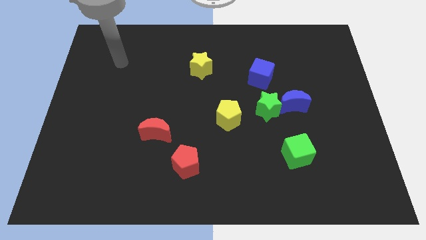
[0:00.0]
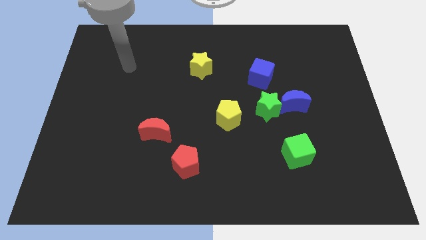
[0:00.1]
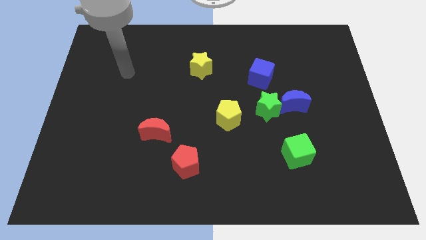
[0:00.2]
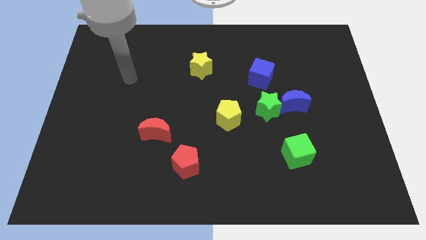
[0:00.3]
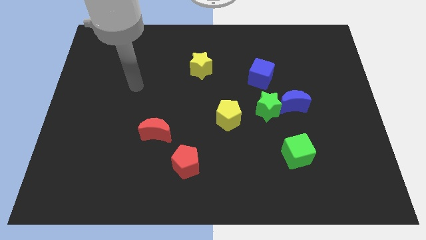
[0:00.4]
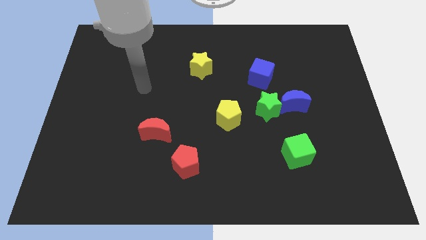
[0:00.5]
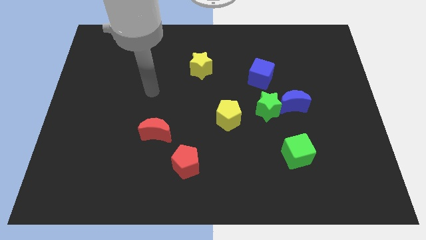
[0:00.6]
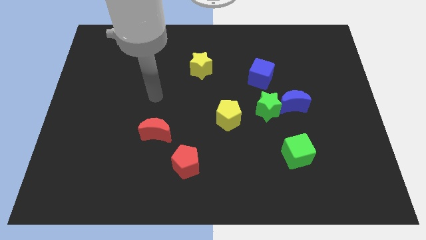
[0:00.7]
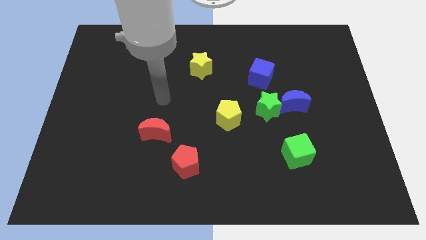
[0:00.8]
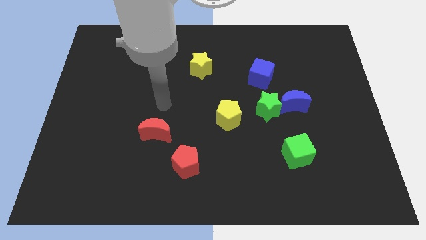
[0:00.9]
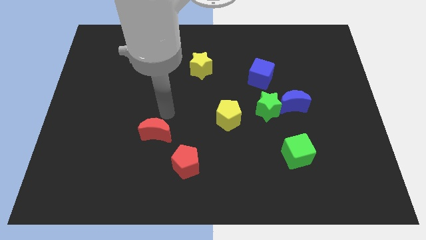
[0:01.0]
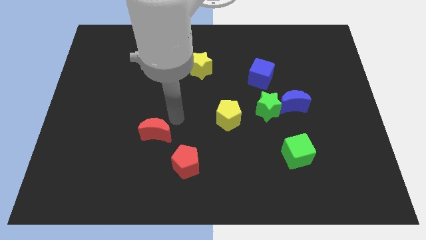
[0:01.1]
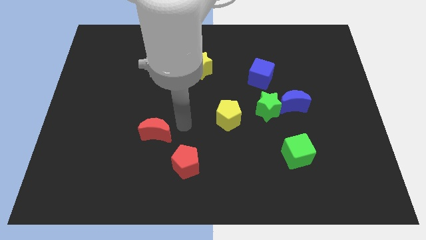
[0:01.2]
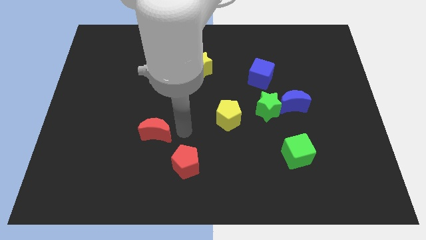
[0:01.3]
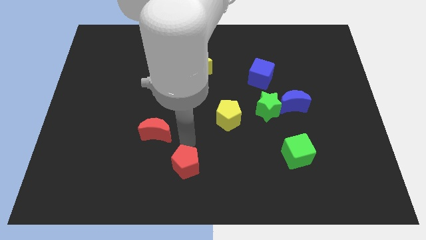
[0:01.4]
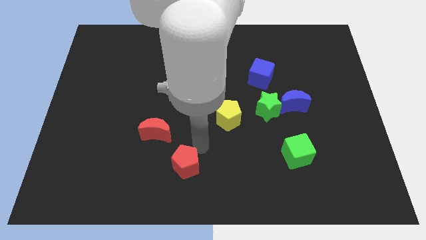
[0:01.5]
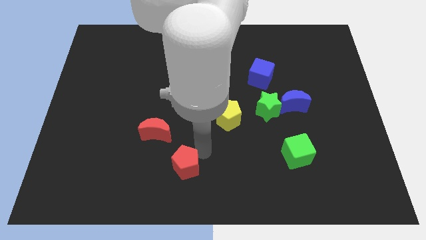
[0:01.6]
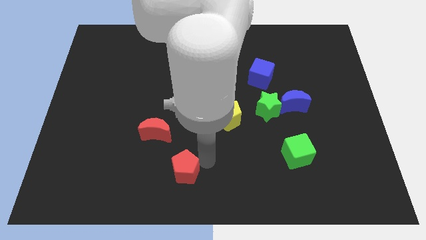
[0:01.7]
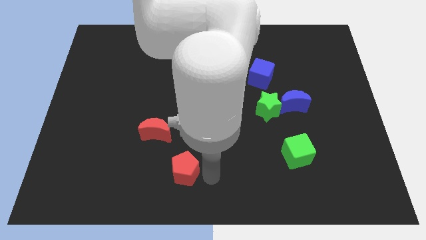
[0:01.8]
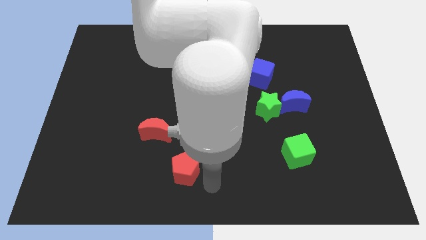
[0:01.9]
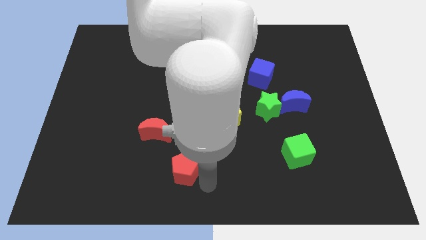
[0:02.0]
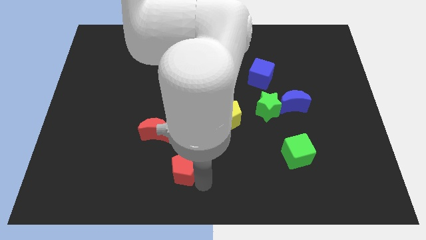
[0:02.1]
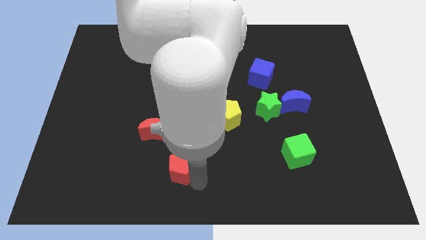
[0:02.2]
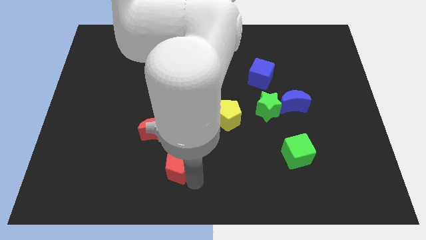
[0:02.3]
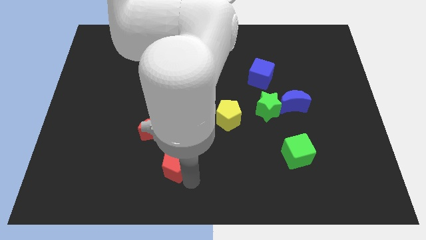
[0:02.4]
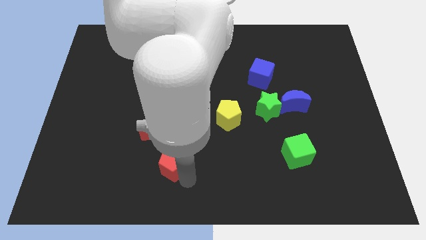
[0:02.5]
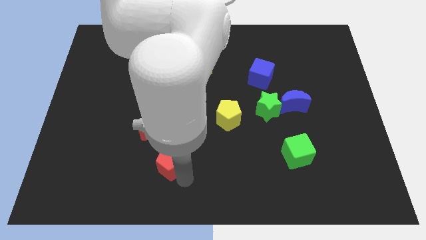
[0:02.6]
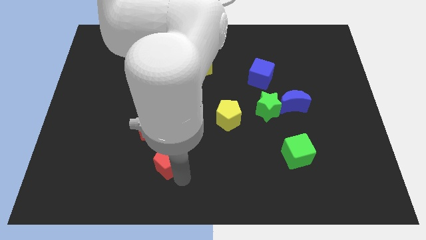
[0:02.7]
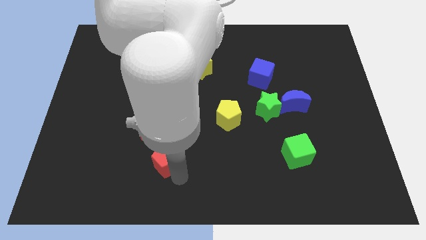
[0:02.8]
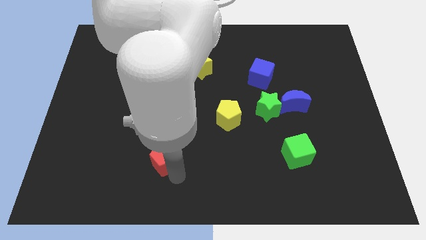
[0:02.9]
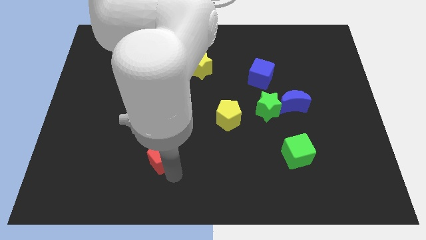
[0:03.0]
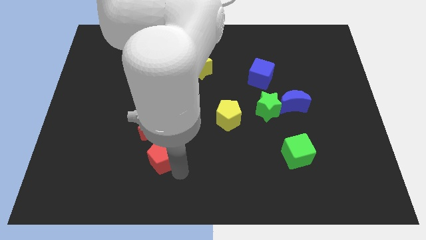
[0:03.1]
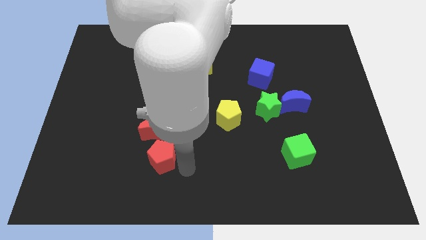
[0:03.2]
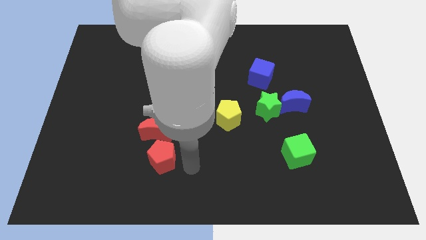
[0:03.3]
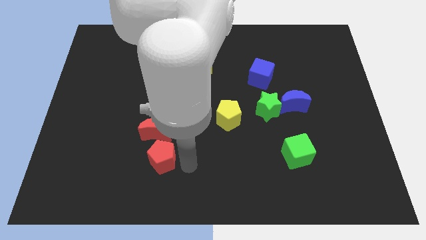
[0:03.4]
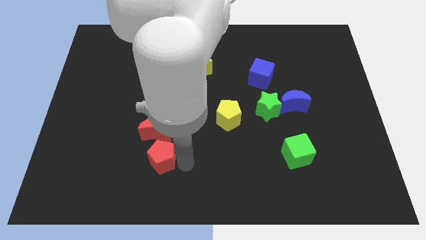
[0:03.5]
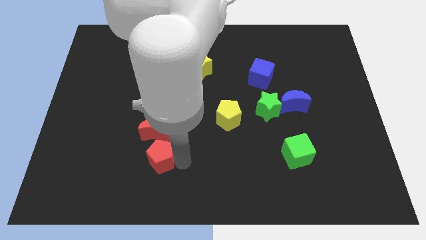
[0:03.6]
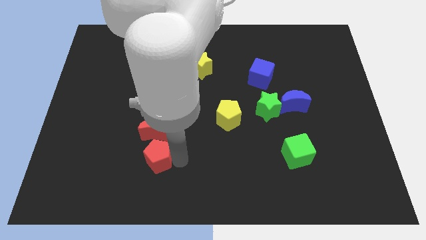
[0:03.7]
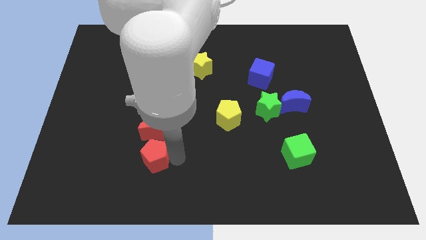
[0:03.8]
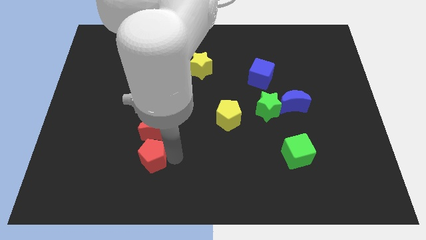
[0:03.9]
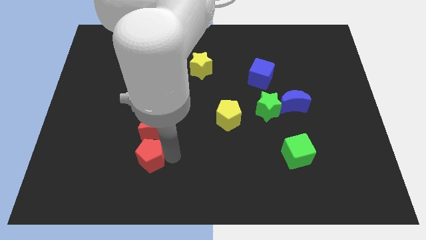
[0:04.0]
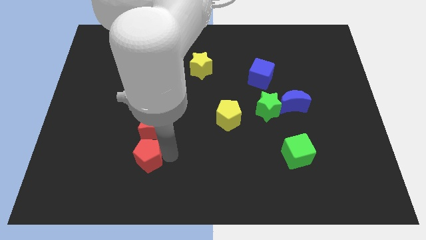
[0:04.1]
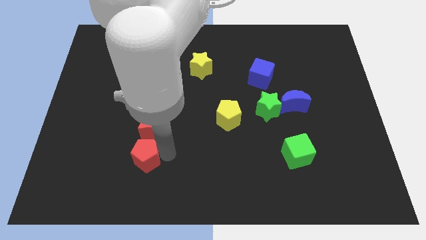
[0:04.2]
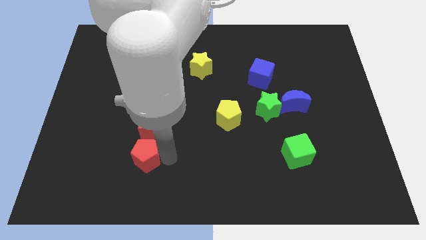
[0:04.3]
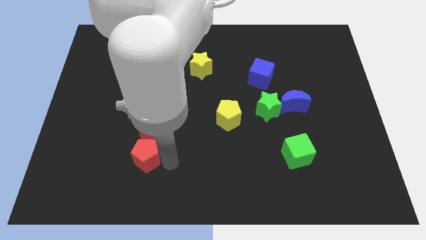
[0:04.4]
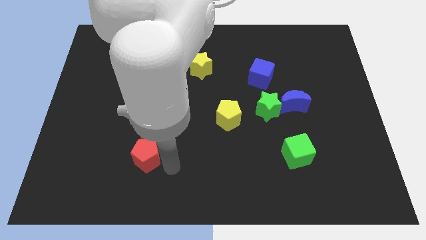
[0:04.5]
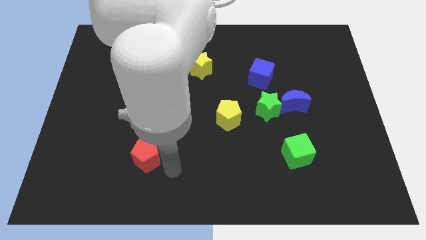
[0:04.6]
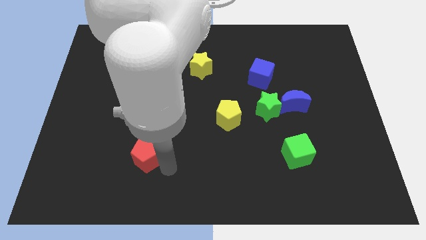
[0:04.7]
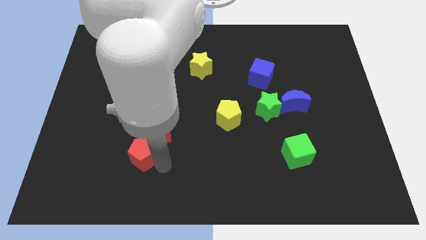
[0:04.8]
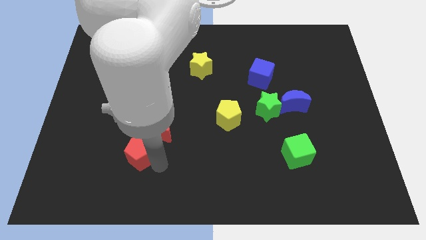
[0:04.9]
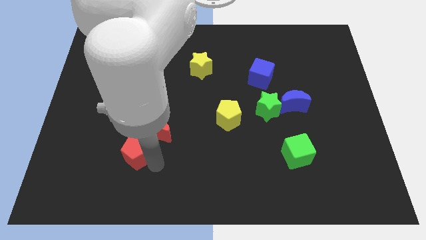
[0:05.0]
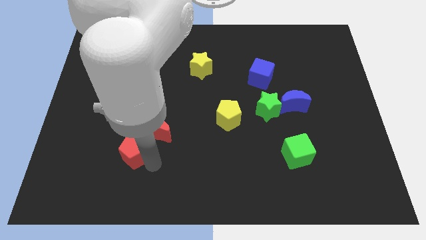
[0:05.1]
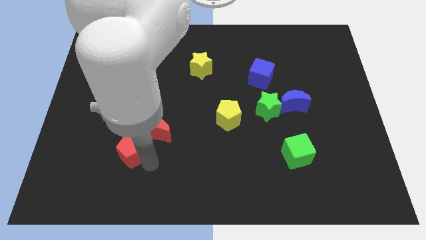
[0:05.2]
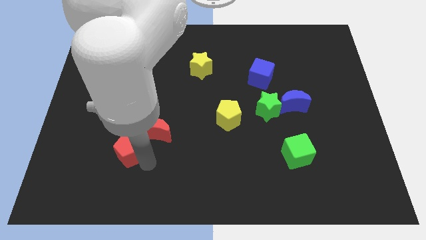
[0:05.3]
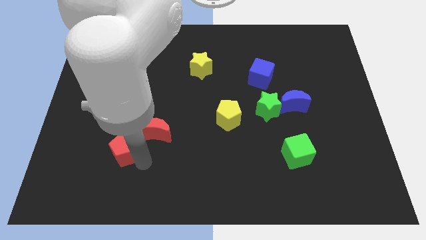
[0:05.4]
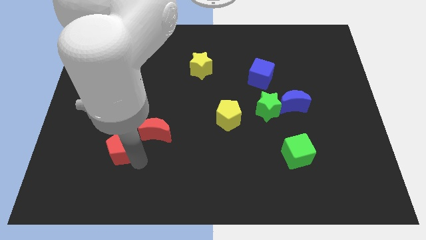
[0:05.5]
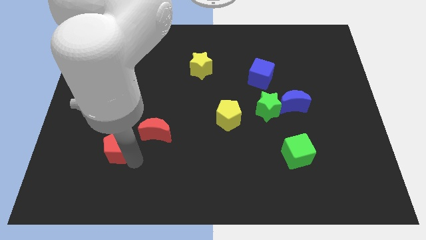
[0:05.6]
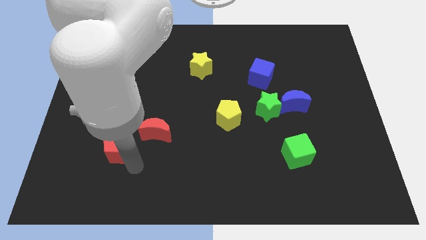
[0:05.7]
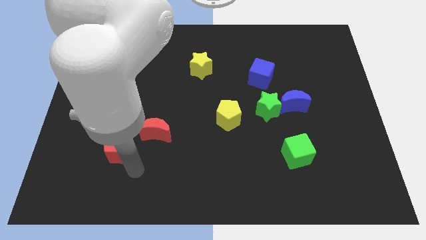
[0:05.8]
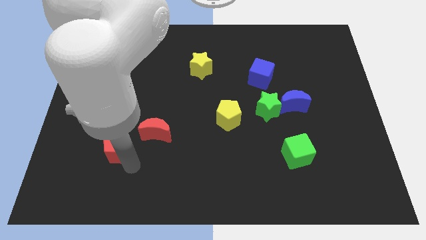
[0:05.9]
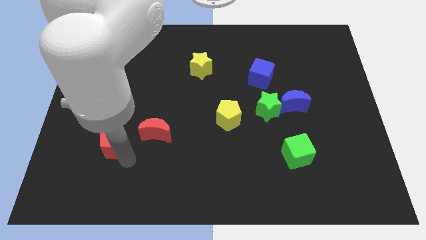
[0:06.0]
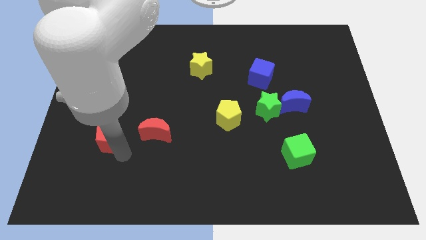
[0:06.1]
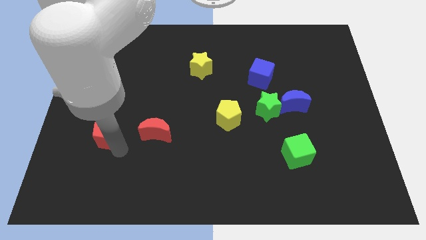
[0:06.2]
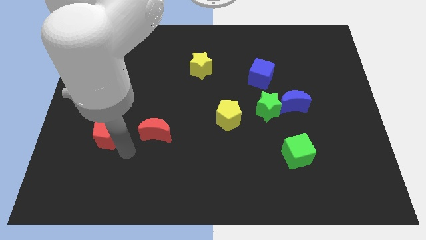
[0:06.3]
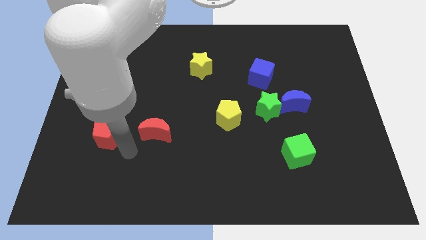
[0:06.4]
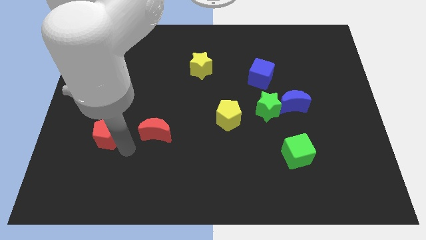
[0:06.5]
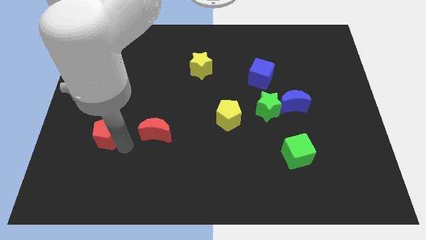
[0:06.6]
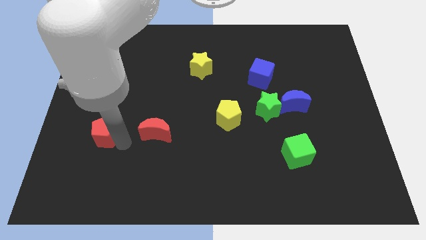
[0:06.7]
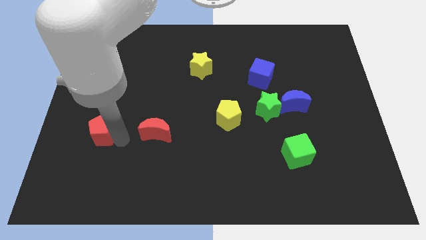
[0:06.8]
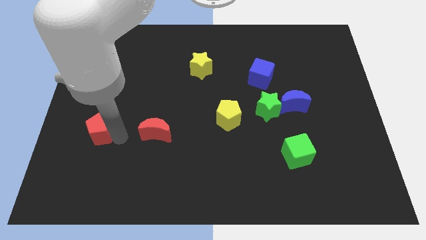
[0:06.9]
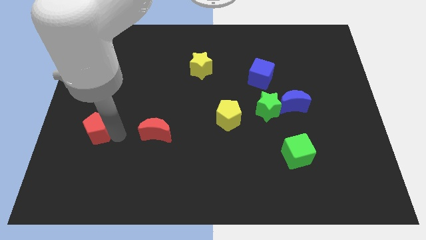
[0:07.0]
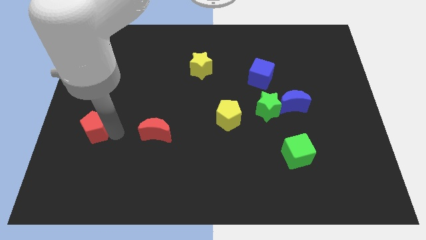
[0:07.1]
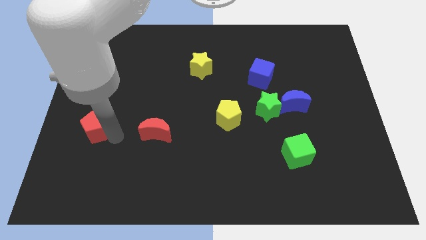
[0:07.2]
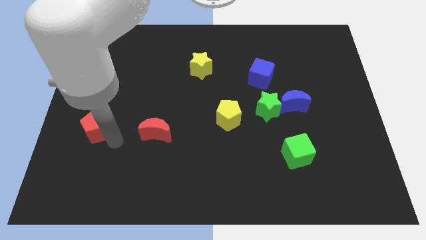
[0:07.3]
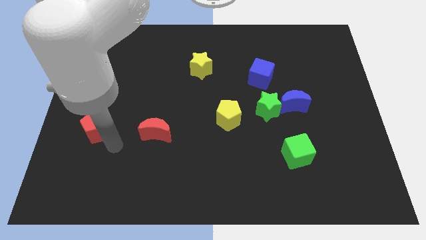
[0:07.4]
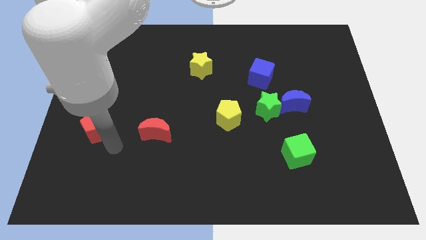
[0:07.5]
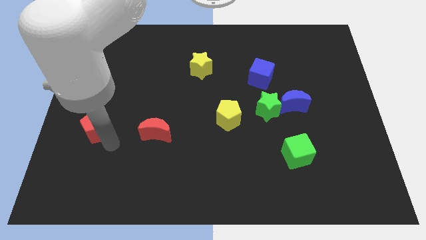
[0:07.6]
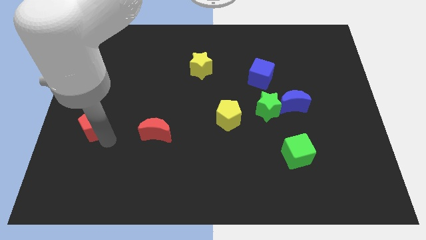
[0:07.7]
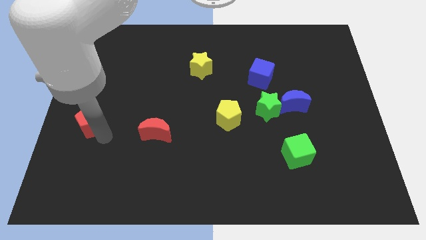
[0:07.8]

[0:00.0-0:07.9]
put the red pentagon to the left side of the board
